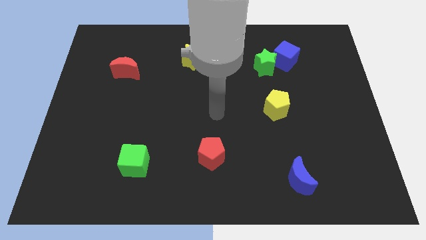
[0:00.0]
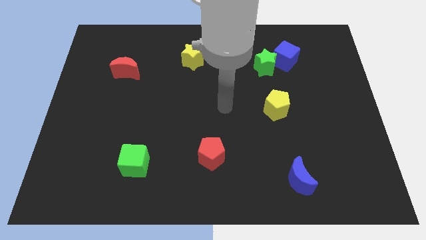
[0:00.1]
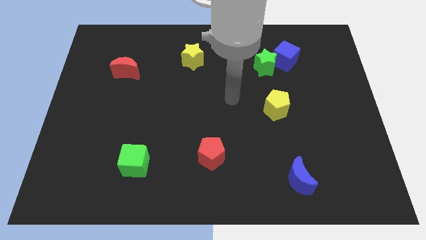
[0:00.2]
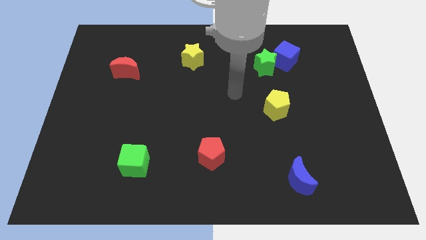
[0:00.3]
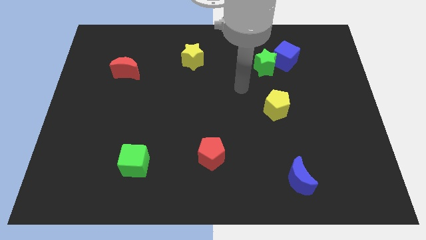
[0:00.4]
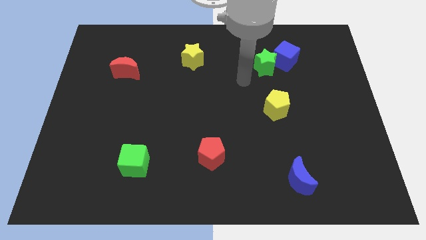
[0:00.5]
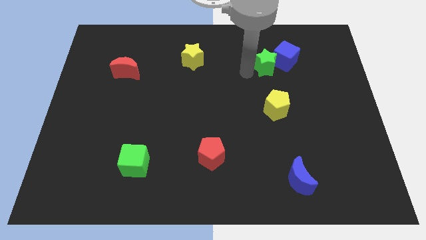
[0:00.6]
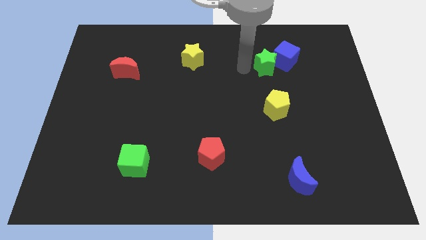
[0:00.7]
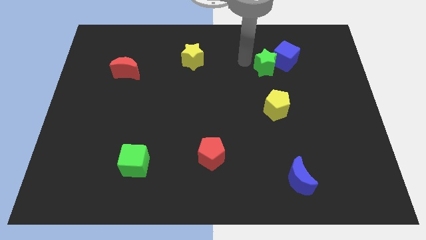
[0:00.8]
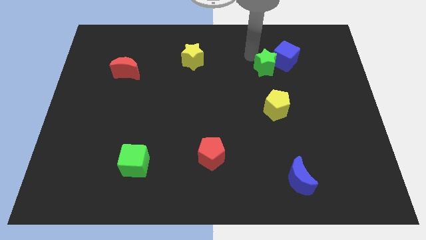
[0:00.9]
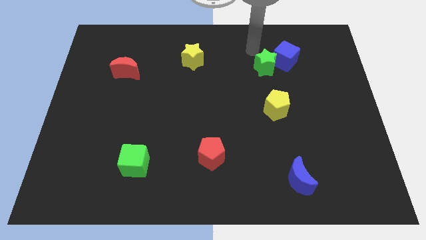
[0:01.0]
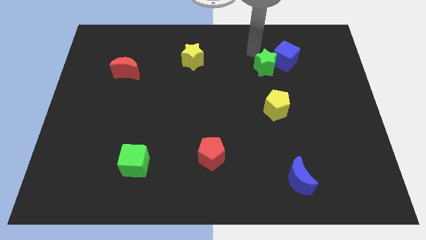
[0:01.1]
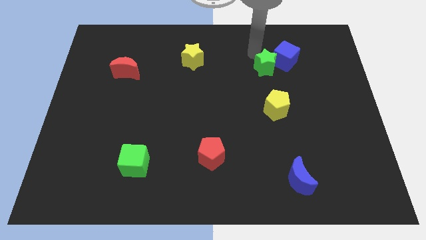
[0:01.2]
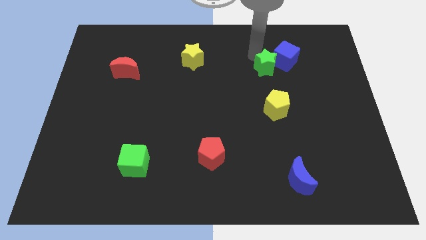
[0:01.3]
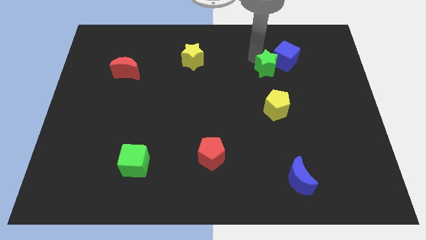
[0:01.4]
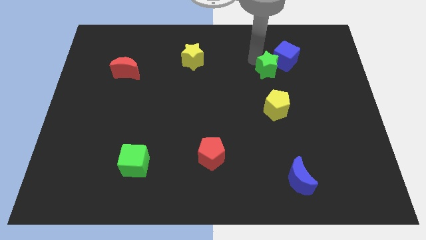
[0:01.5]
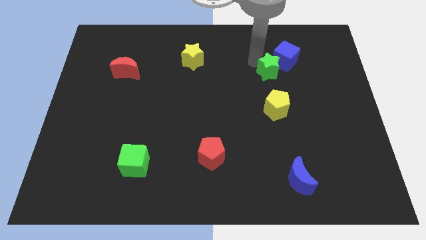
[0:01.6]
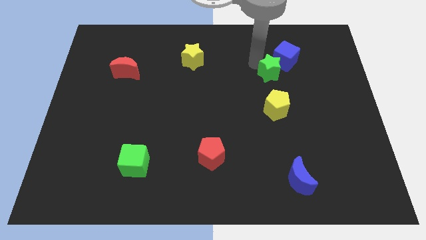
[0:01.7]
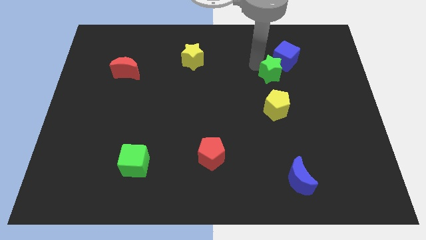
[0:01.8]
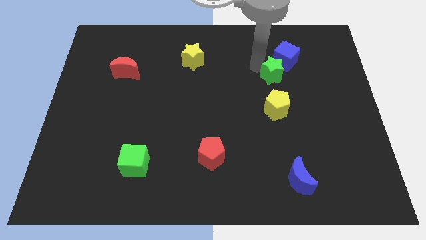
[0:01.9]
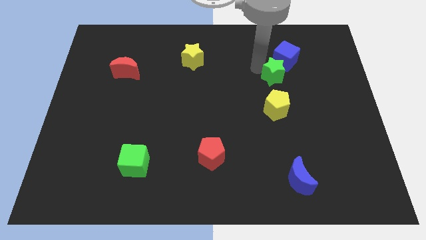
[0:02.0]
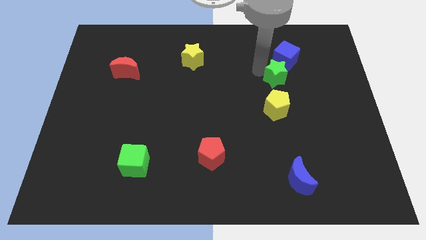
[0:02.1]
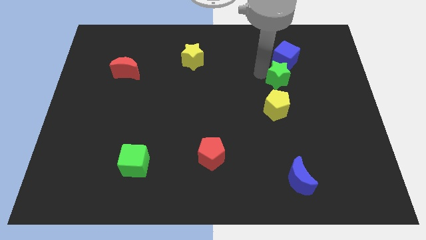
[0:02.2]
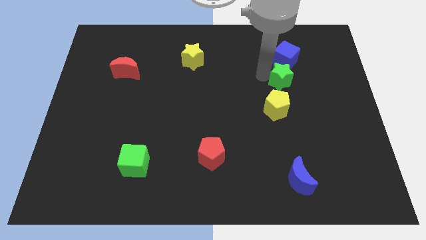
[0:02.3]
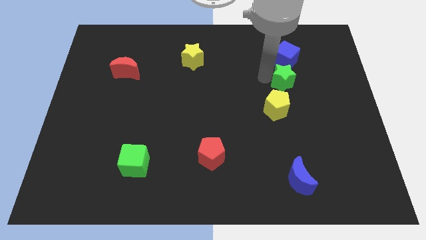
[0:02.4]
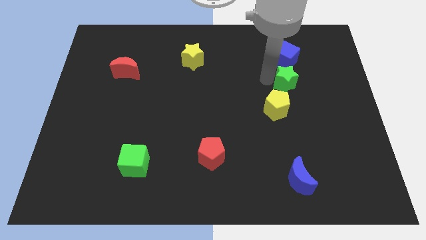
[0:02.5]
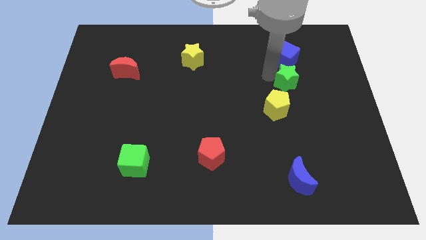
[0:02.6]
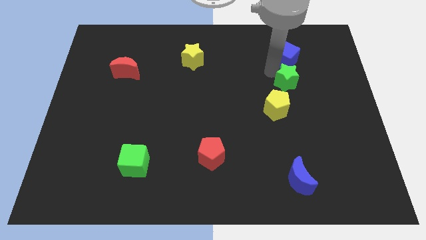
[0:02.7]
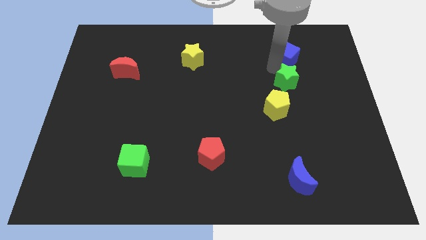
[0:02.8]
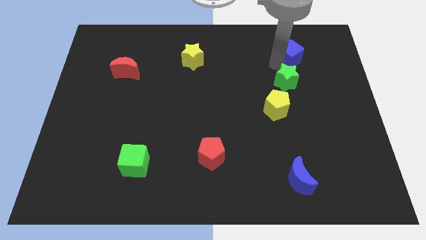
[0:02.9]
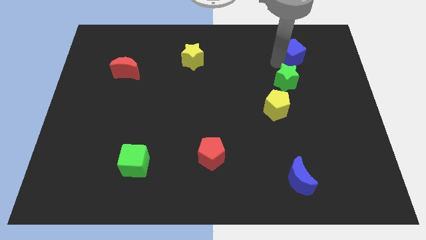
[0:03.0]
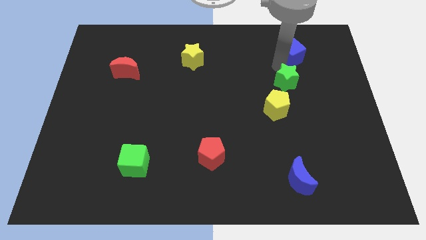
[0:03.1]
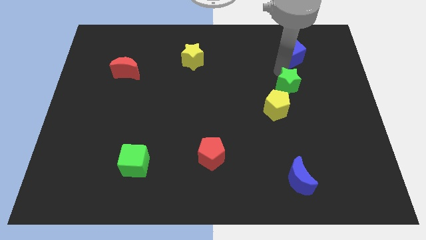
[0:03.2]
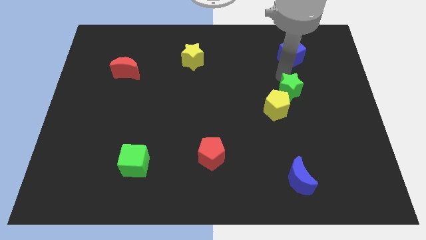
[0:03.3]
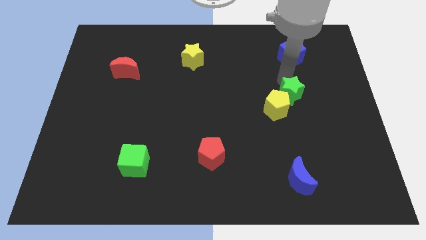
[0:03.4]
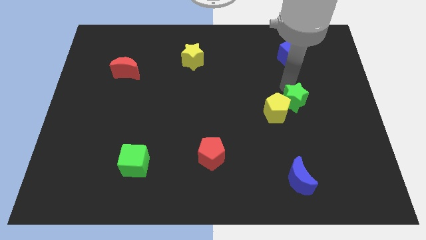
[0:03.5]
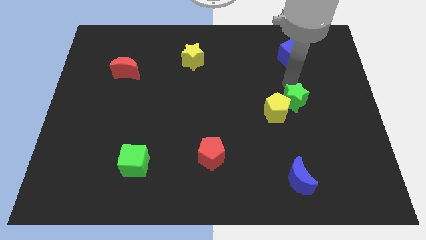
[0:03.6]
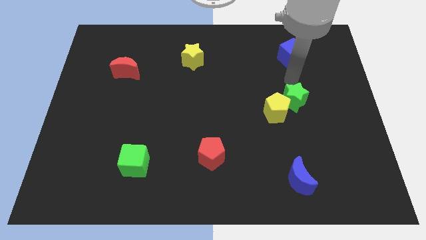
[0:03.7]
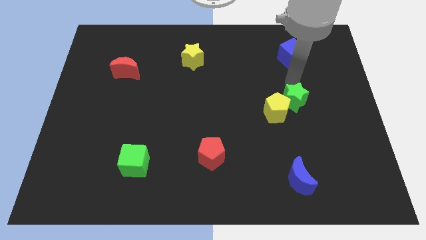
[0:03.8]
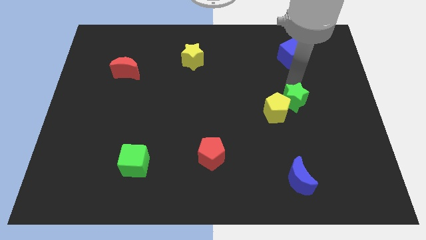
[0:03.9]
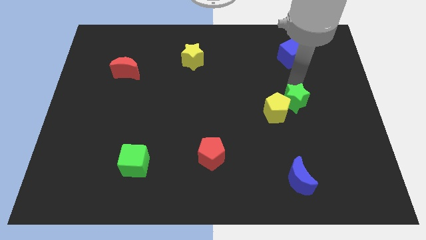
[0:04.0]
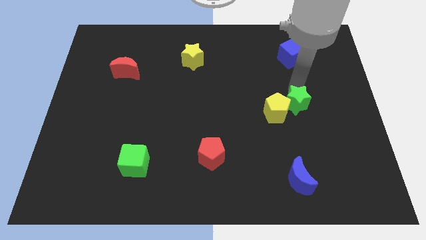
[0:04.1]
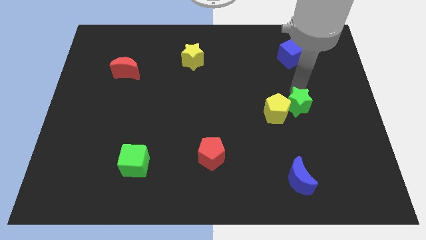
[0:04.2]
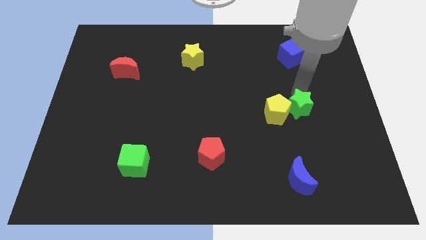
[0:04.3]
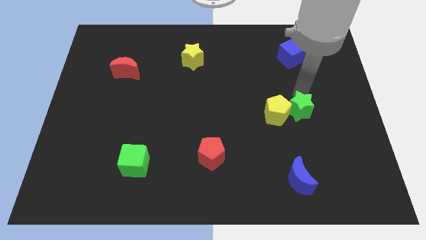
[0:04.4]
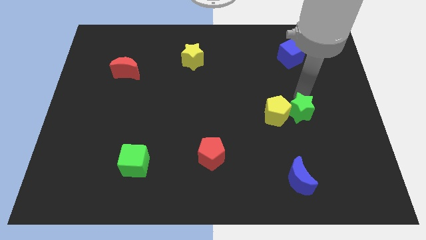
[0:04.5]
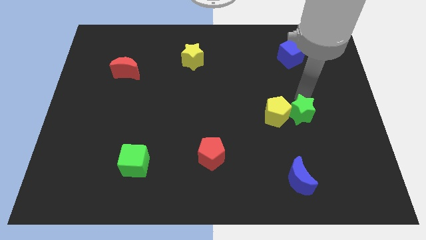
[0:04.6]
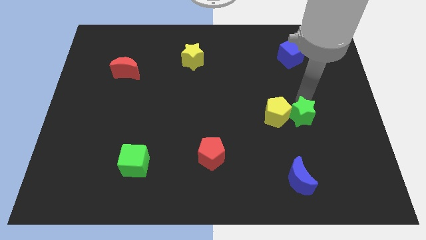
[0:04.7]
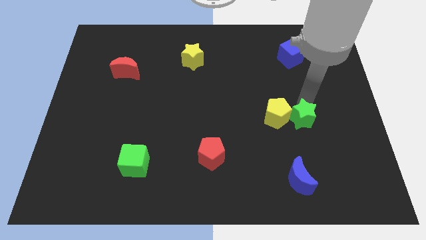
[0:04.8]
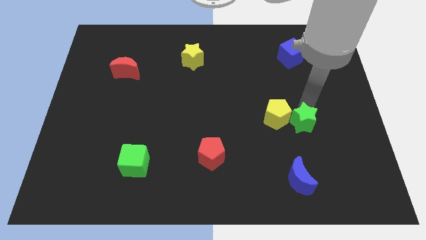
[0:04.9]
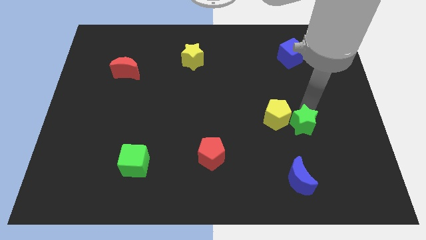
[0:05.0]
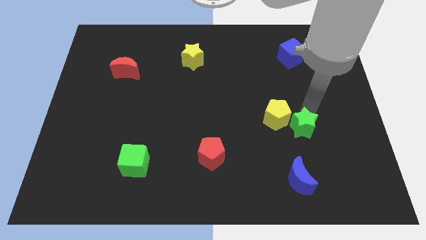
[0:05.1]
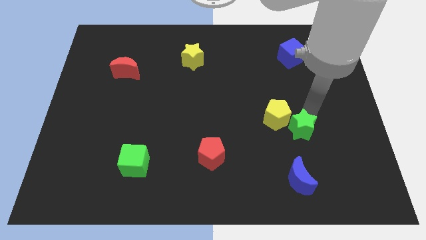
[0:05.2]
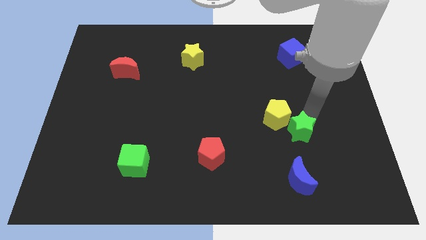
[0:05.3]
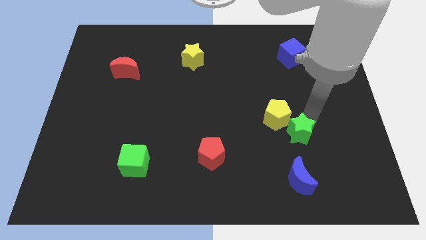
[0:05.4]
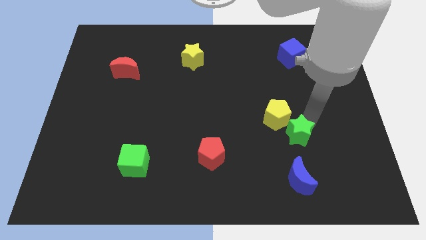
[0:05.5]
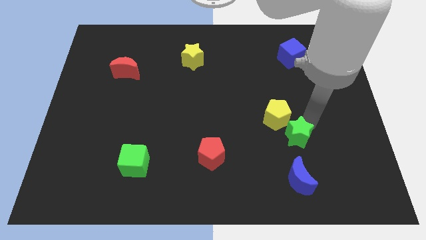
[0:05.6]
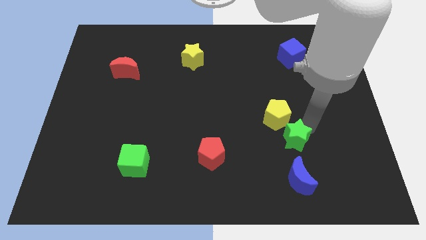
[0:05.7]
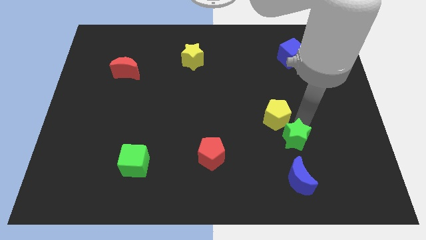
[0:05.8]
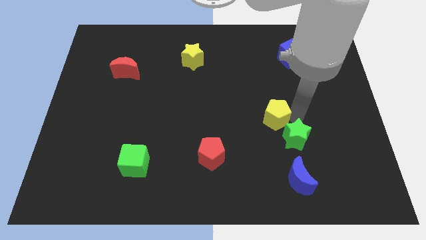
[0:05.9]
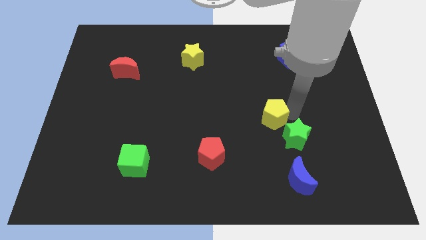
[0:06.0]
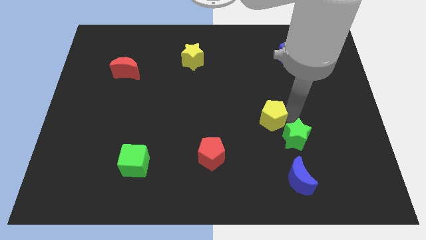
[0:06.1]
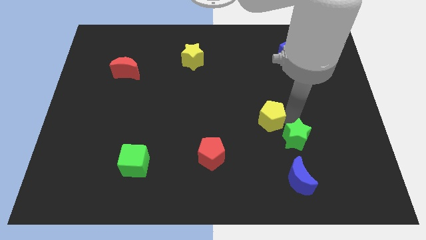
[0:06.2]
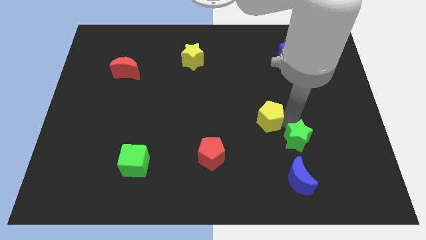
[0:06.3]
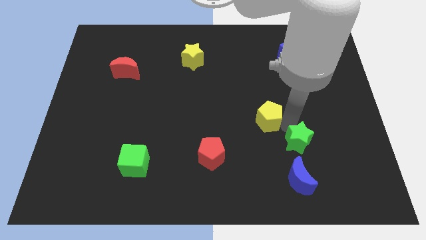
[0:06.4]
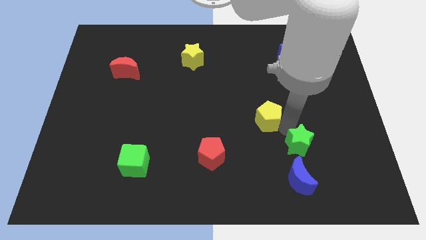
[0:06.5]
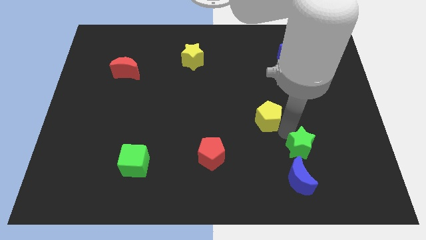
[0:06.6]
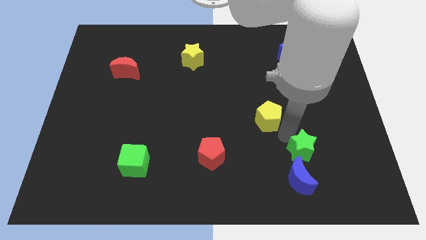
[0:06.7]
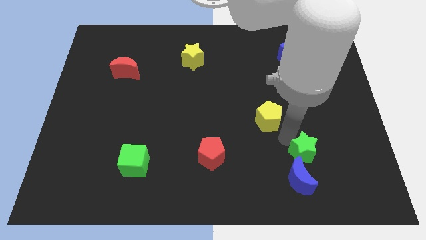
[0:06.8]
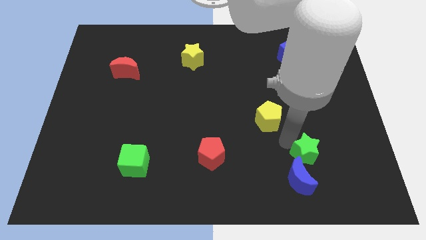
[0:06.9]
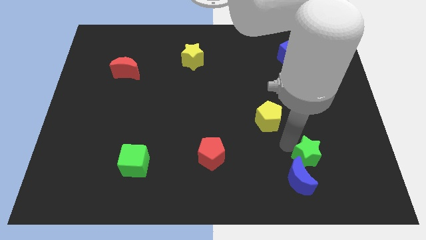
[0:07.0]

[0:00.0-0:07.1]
push the green star next to the blue moon

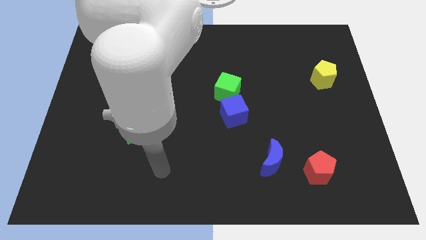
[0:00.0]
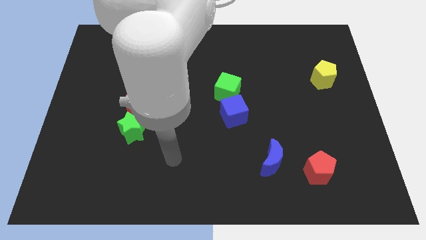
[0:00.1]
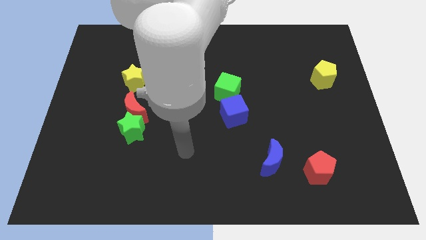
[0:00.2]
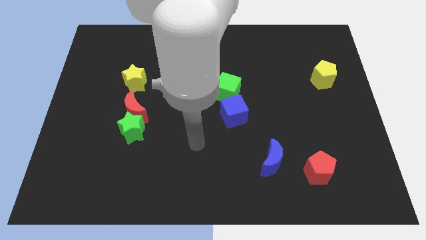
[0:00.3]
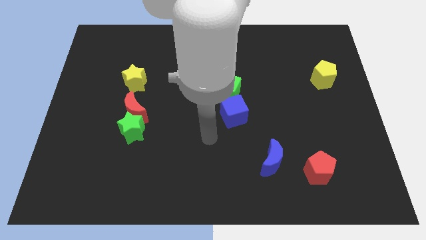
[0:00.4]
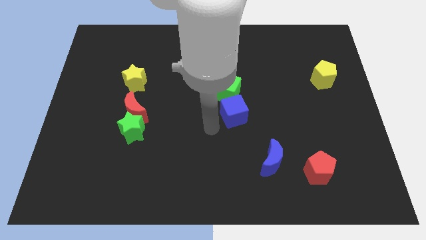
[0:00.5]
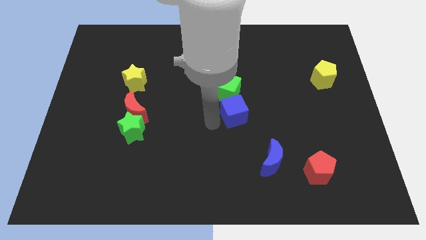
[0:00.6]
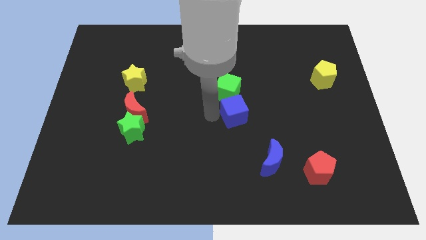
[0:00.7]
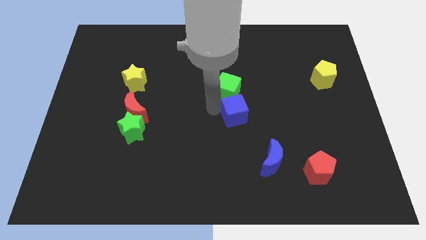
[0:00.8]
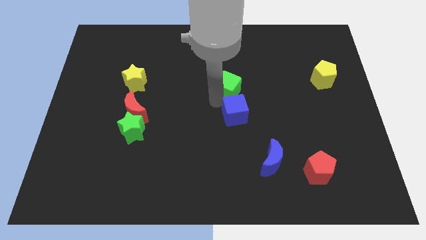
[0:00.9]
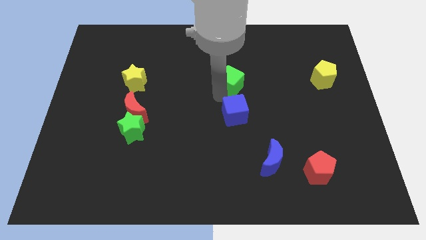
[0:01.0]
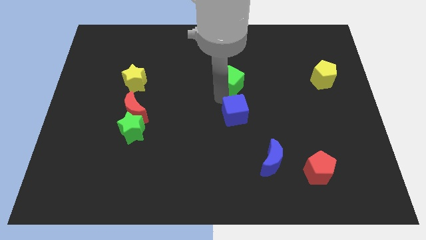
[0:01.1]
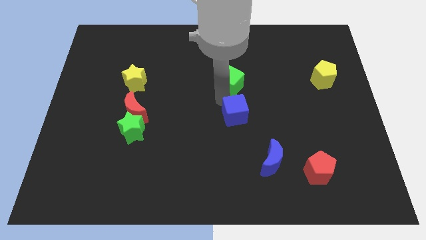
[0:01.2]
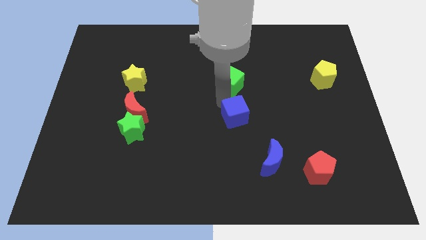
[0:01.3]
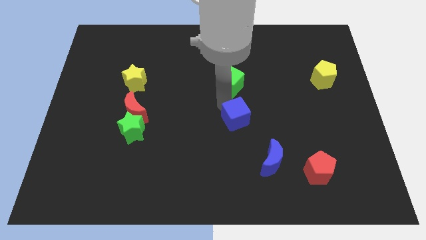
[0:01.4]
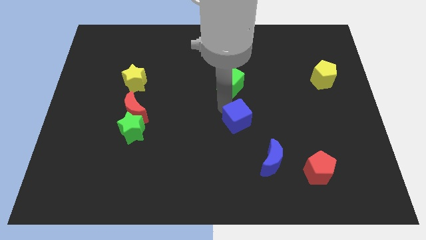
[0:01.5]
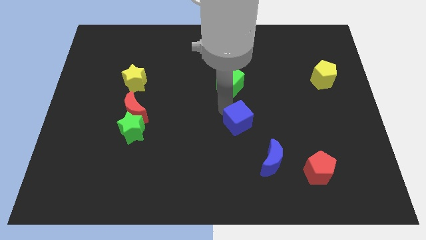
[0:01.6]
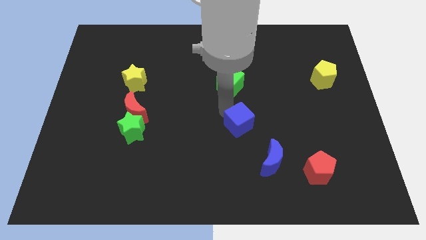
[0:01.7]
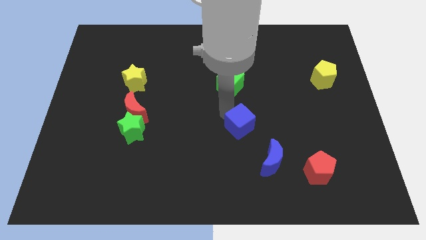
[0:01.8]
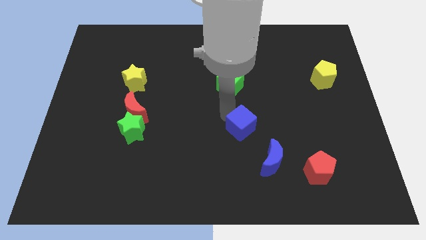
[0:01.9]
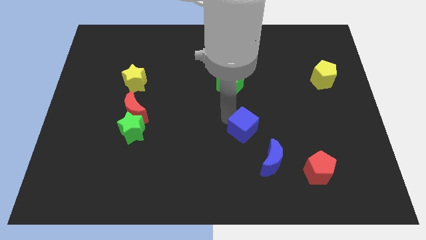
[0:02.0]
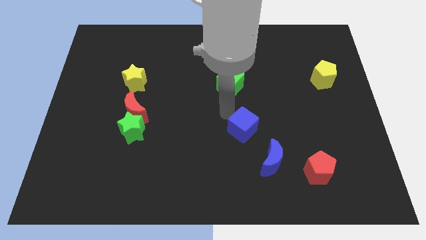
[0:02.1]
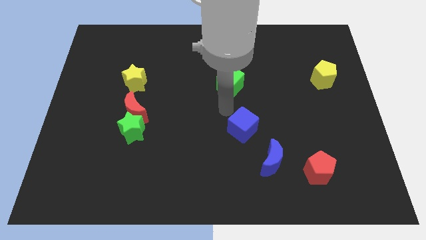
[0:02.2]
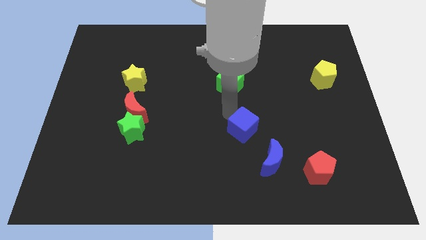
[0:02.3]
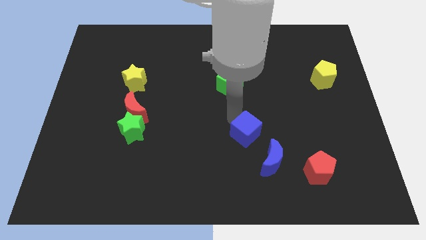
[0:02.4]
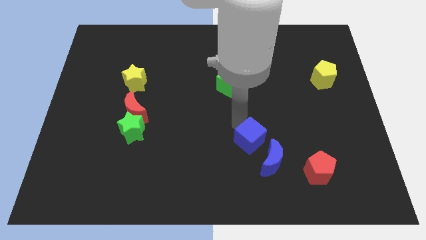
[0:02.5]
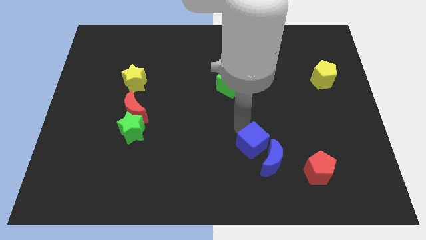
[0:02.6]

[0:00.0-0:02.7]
slide the blue cube to the blue moon
